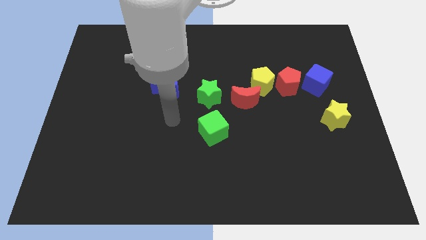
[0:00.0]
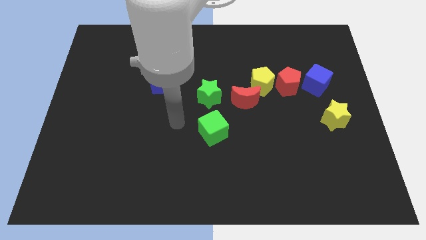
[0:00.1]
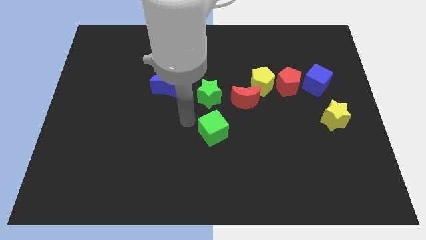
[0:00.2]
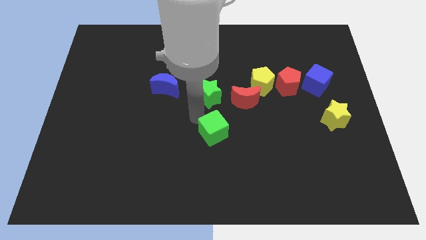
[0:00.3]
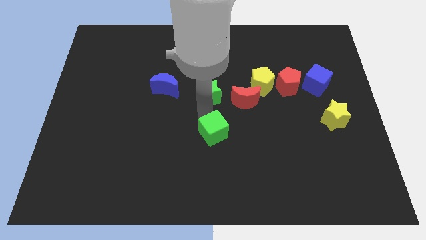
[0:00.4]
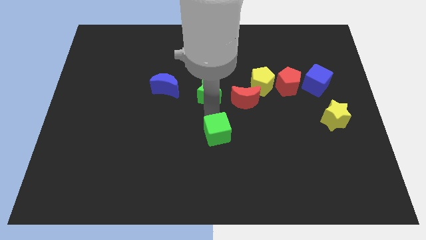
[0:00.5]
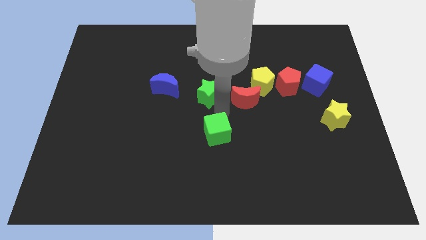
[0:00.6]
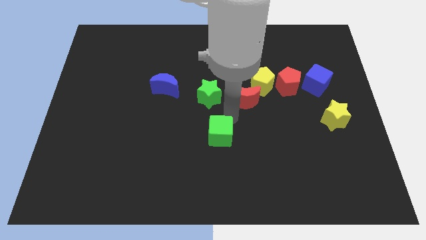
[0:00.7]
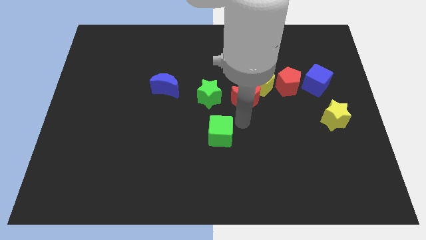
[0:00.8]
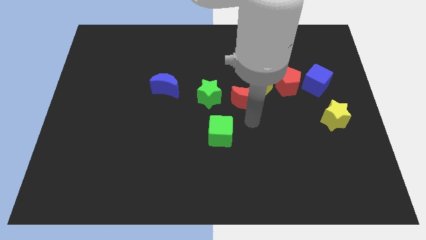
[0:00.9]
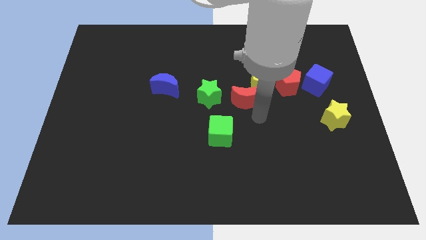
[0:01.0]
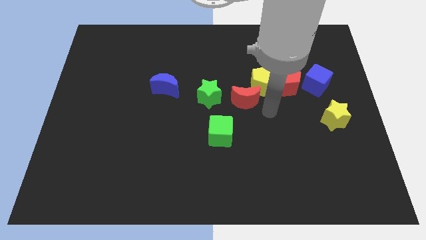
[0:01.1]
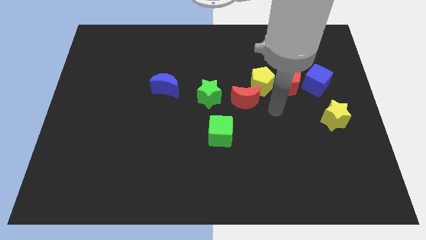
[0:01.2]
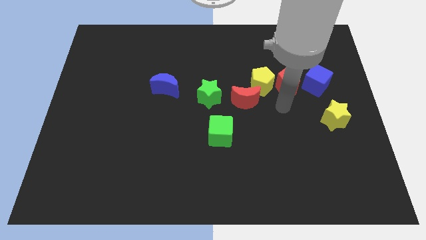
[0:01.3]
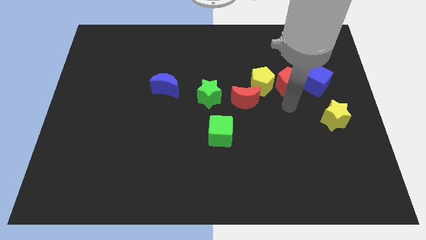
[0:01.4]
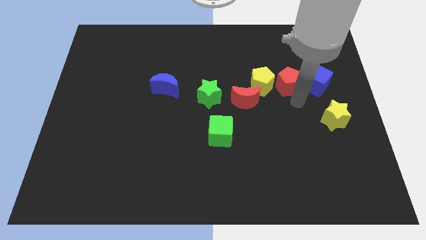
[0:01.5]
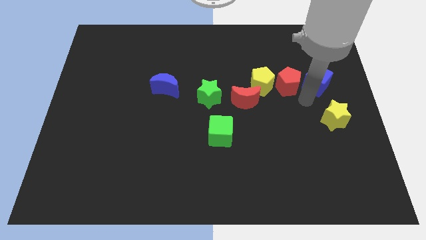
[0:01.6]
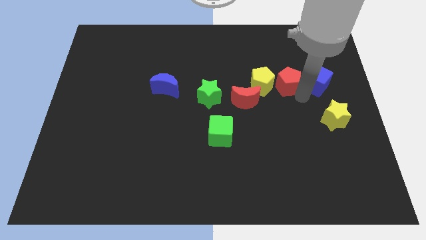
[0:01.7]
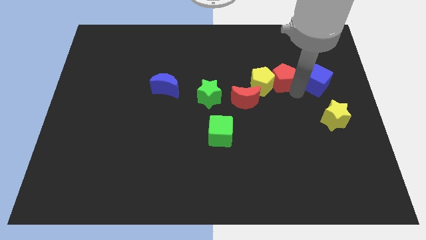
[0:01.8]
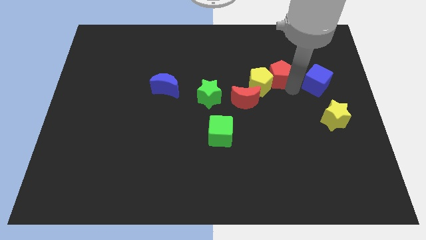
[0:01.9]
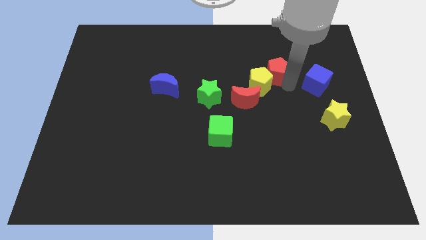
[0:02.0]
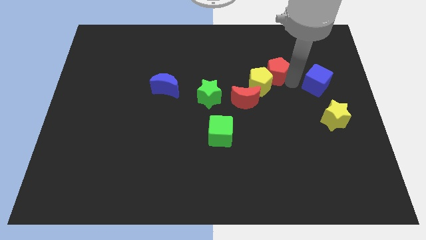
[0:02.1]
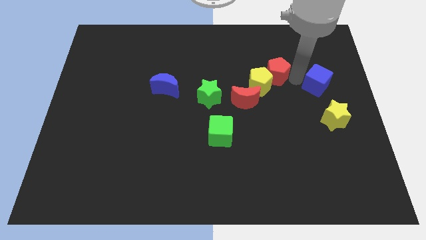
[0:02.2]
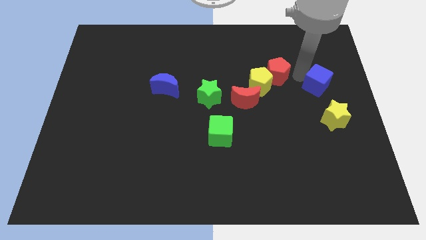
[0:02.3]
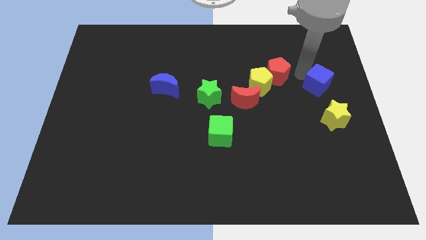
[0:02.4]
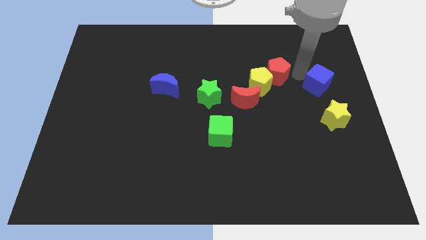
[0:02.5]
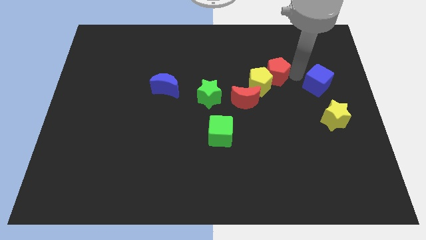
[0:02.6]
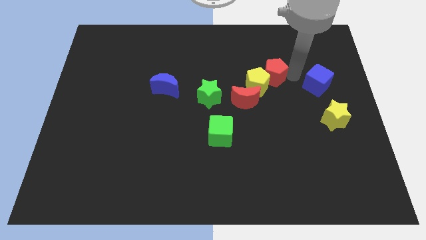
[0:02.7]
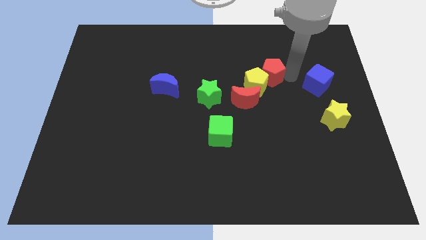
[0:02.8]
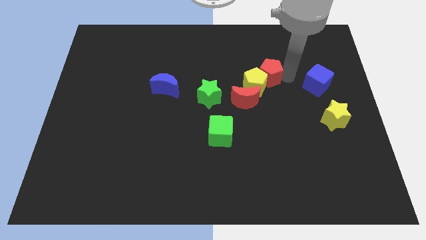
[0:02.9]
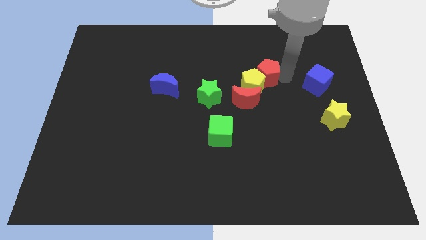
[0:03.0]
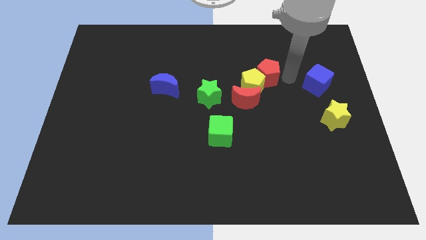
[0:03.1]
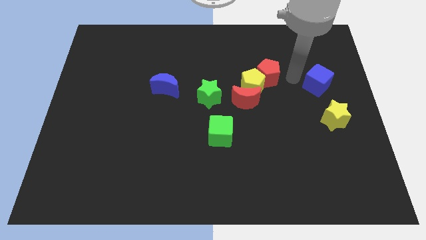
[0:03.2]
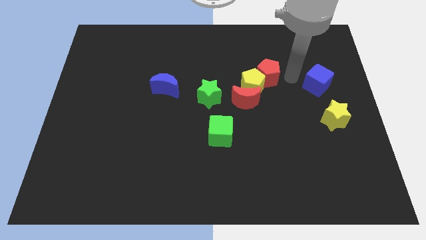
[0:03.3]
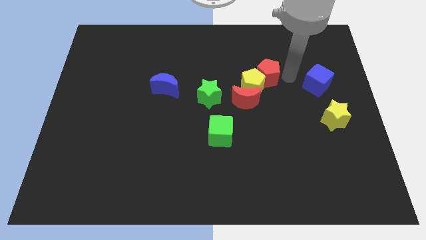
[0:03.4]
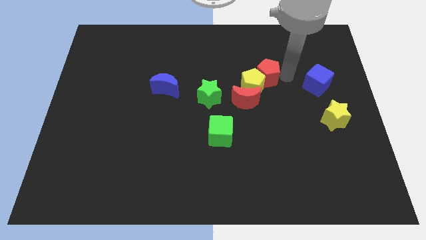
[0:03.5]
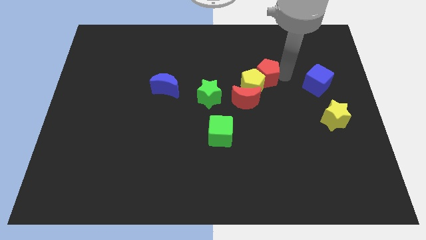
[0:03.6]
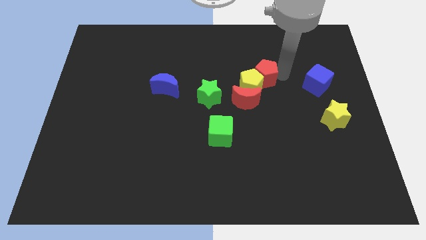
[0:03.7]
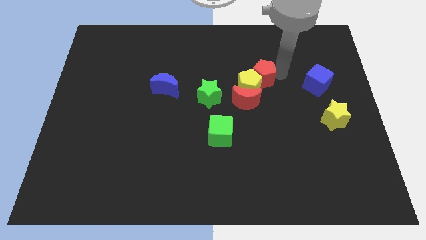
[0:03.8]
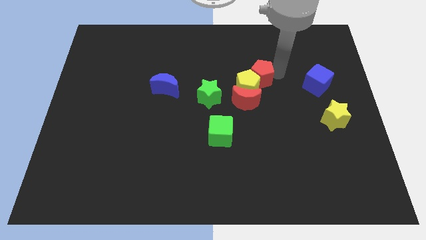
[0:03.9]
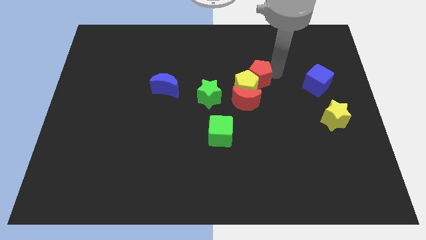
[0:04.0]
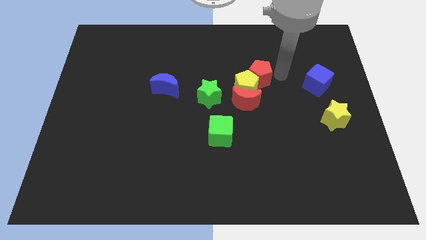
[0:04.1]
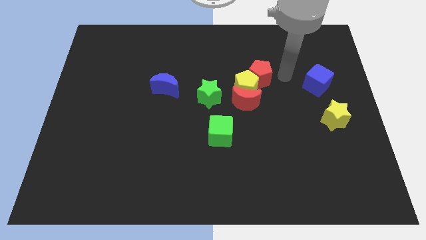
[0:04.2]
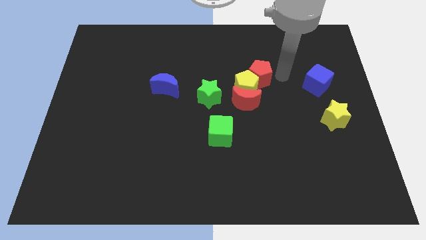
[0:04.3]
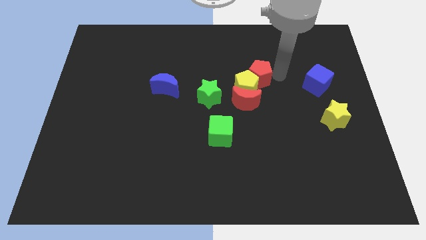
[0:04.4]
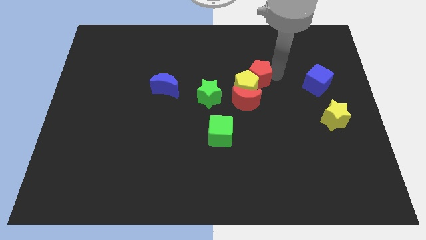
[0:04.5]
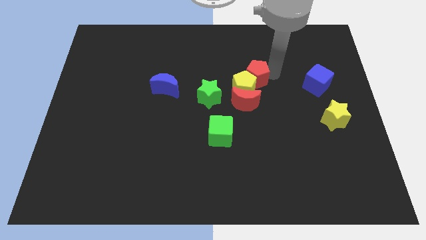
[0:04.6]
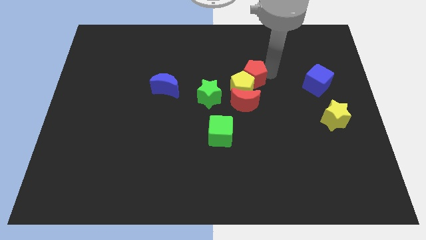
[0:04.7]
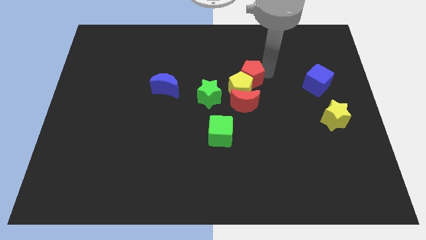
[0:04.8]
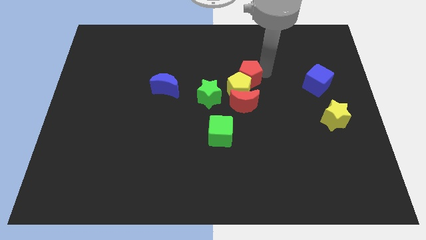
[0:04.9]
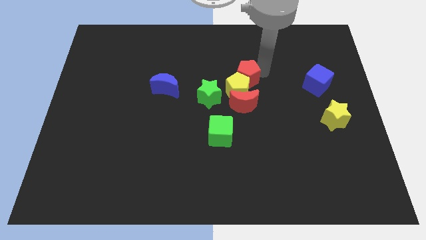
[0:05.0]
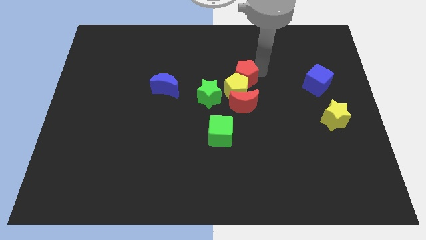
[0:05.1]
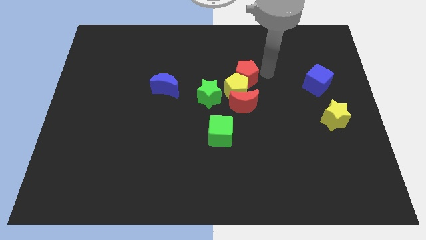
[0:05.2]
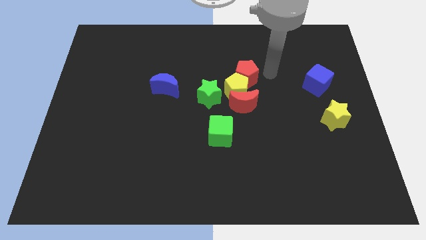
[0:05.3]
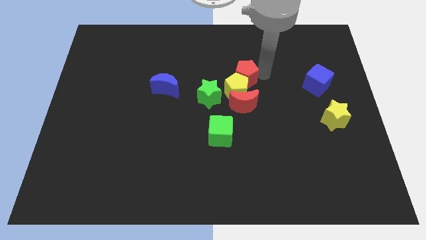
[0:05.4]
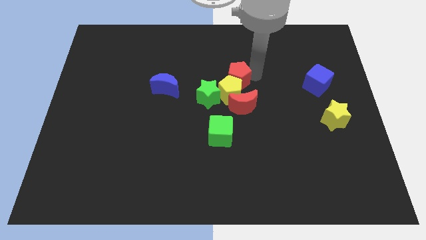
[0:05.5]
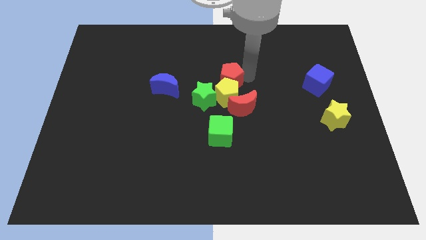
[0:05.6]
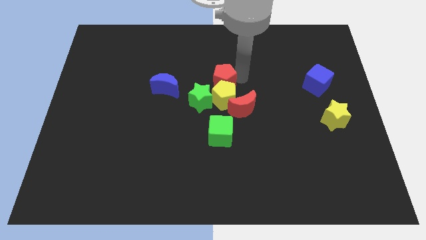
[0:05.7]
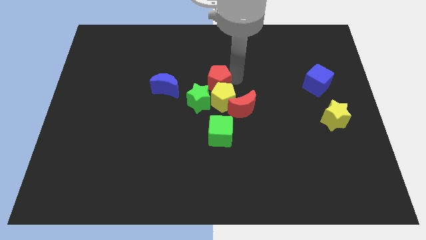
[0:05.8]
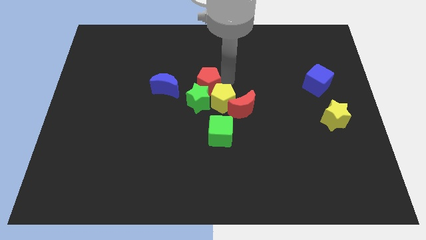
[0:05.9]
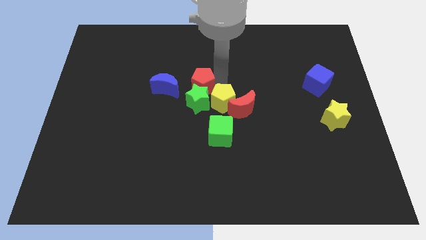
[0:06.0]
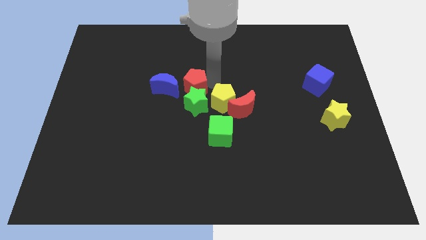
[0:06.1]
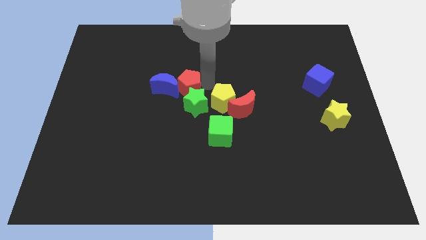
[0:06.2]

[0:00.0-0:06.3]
slide the red pentagon towards the blue moon

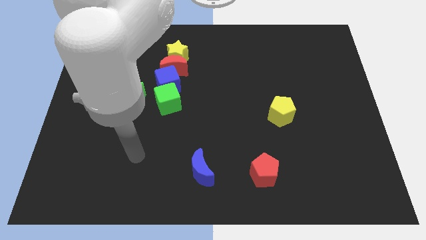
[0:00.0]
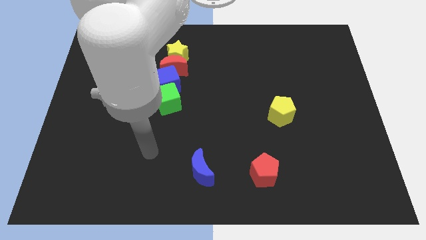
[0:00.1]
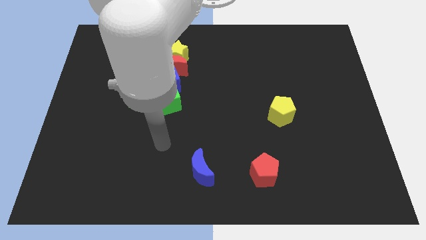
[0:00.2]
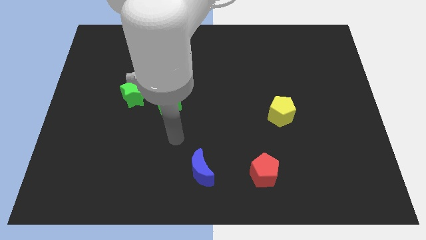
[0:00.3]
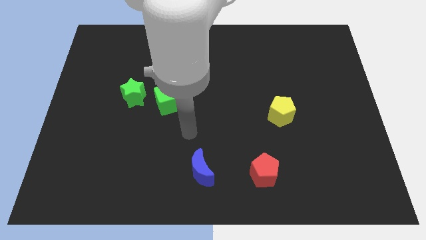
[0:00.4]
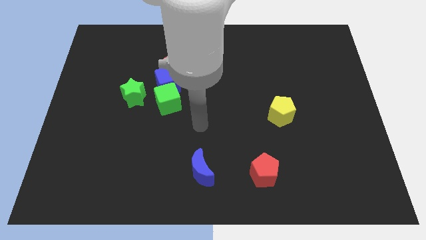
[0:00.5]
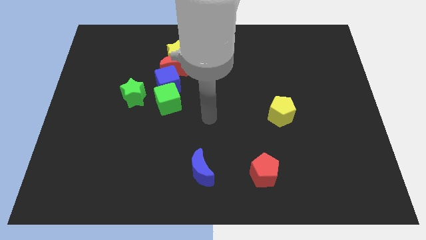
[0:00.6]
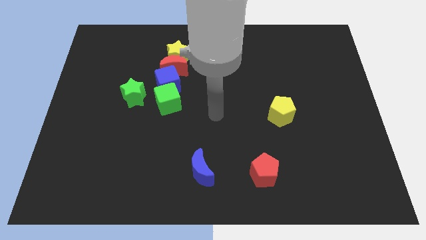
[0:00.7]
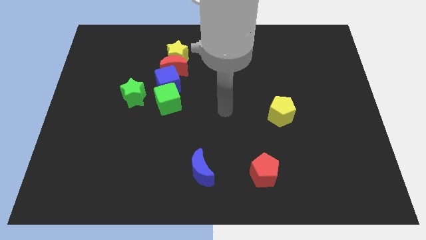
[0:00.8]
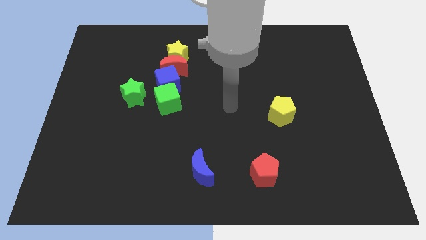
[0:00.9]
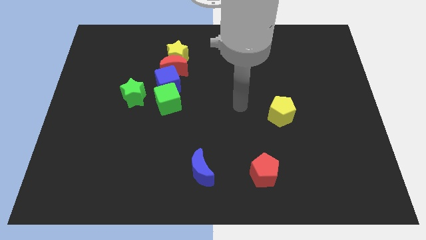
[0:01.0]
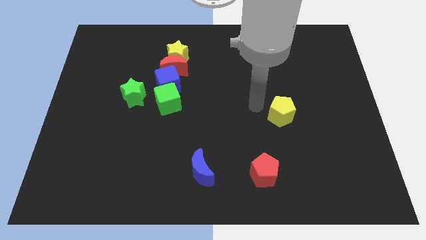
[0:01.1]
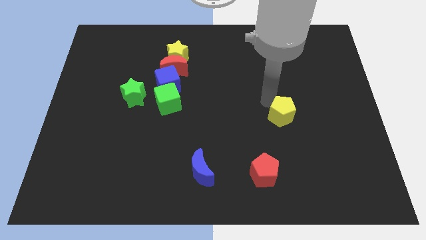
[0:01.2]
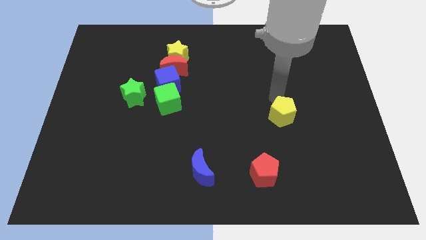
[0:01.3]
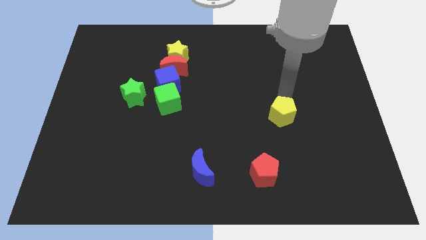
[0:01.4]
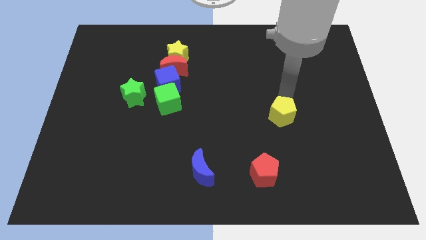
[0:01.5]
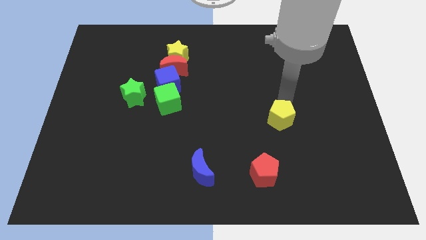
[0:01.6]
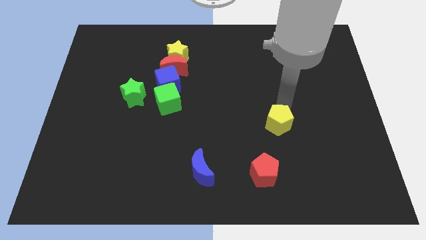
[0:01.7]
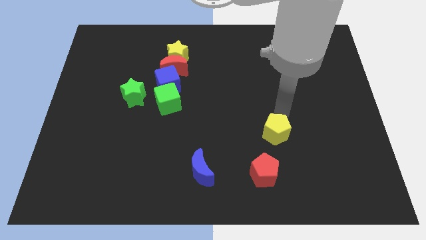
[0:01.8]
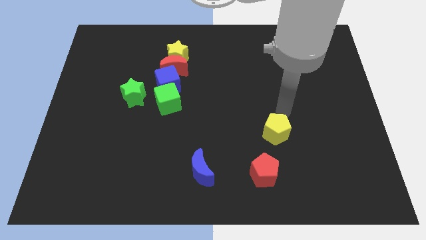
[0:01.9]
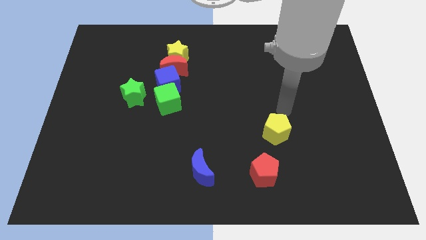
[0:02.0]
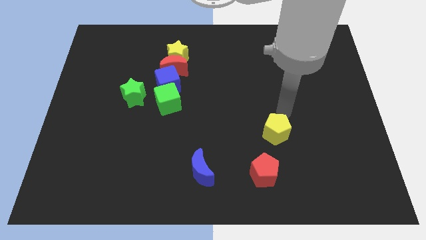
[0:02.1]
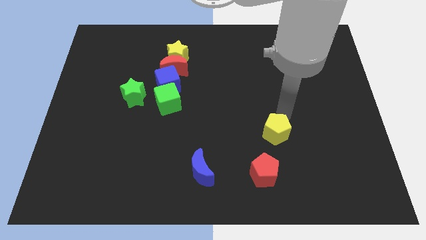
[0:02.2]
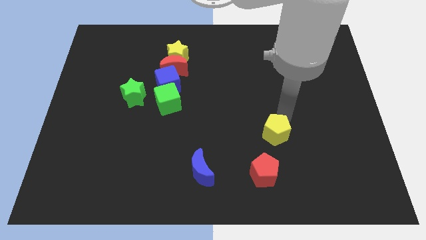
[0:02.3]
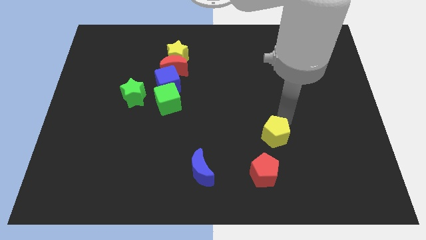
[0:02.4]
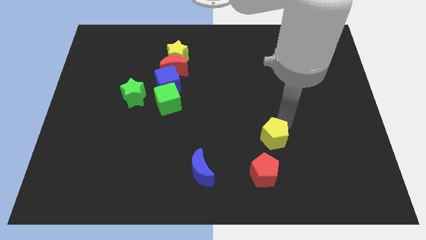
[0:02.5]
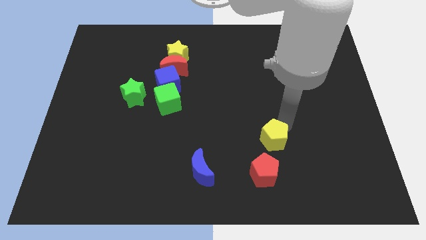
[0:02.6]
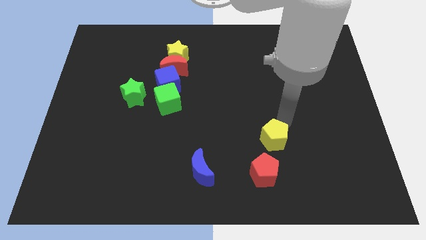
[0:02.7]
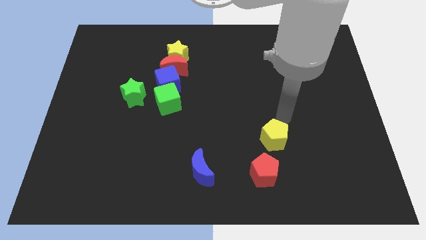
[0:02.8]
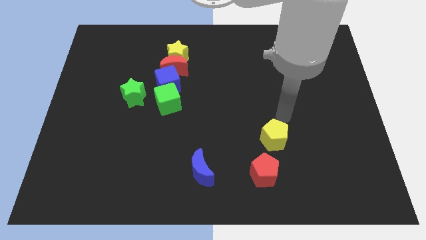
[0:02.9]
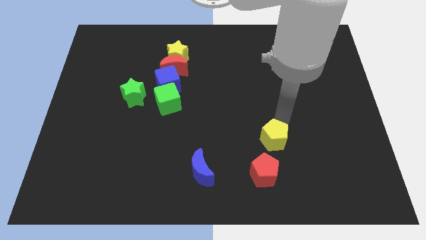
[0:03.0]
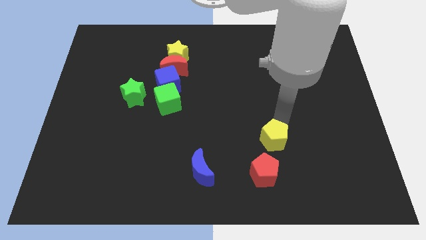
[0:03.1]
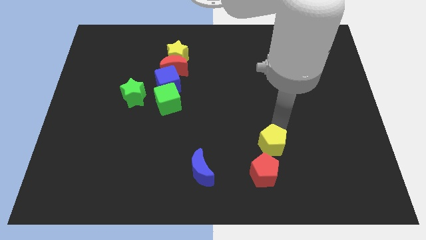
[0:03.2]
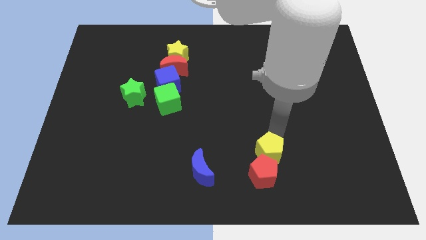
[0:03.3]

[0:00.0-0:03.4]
slide the yellow pentagon close to the red pentagon
